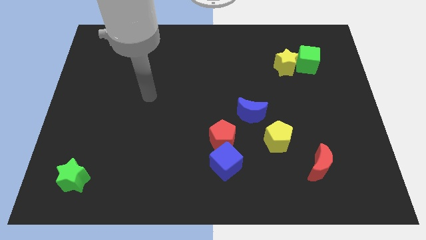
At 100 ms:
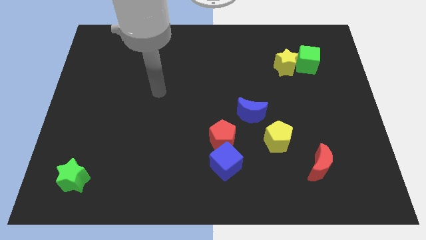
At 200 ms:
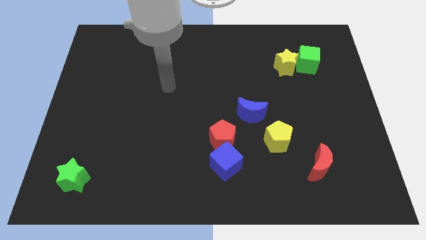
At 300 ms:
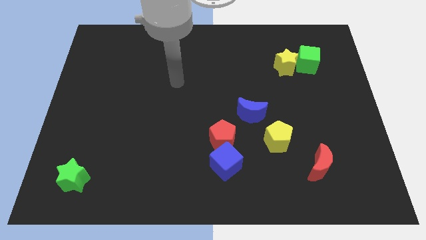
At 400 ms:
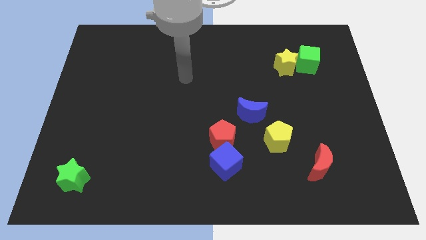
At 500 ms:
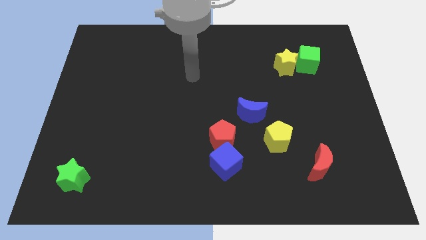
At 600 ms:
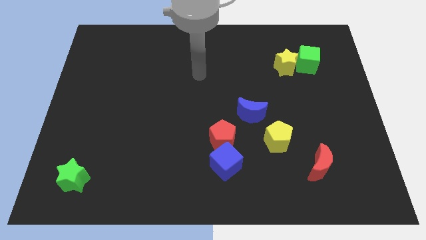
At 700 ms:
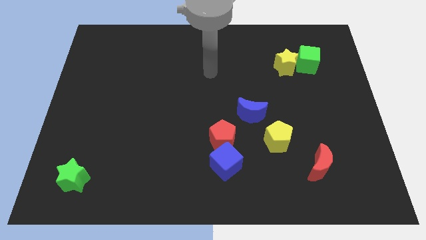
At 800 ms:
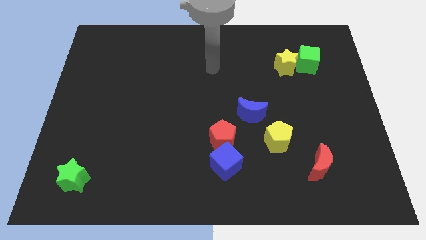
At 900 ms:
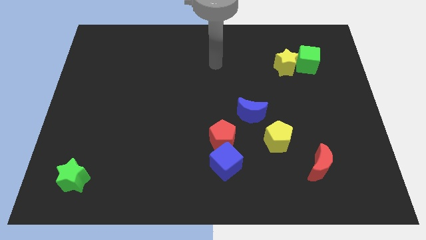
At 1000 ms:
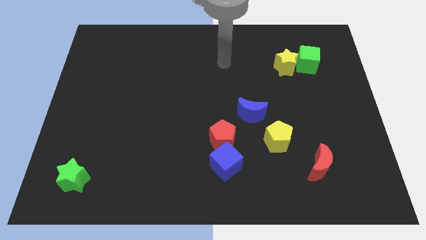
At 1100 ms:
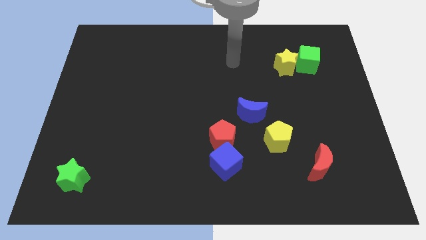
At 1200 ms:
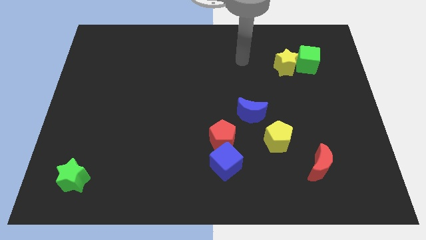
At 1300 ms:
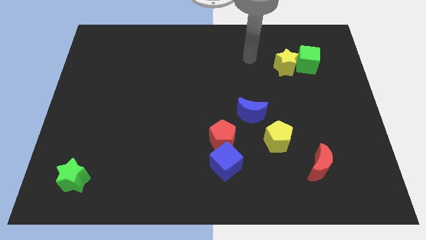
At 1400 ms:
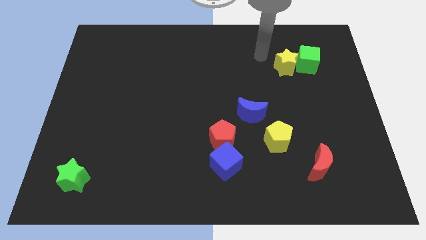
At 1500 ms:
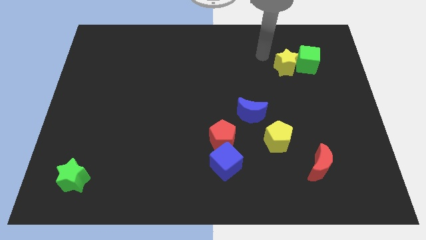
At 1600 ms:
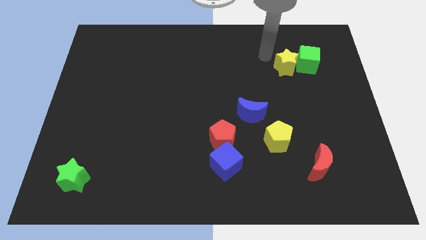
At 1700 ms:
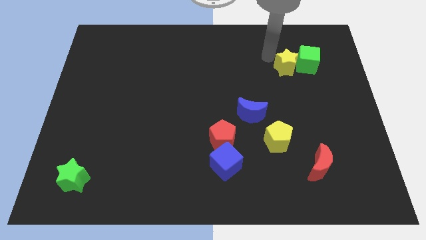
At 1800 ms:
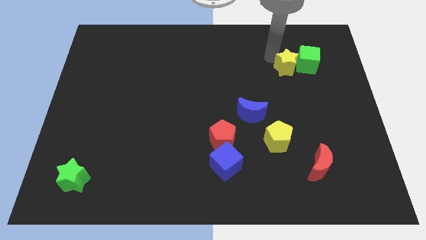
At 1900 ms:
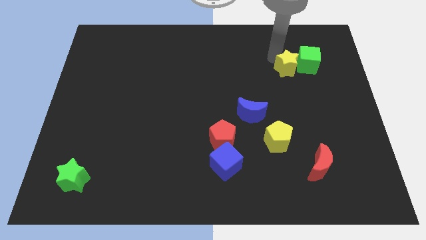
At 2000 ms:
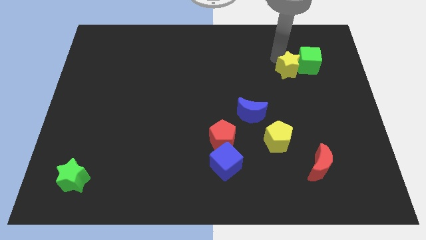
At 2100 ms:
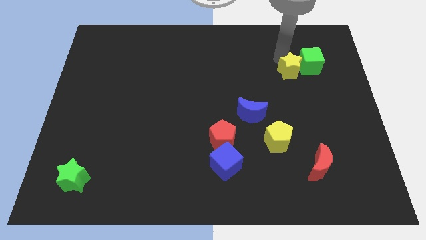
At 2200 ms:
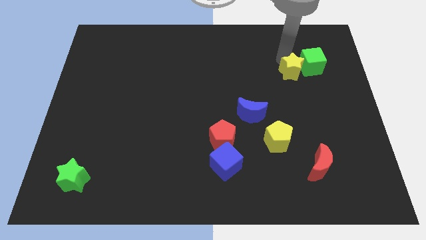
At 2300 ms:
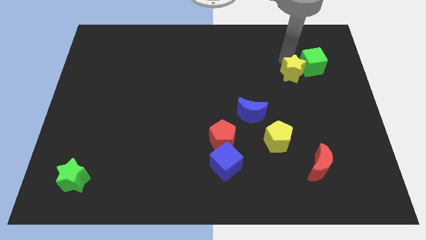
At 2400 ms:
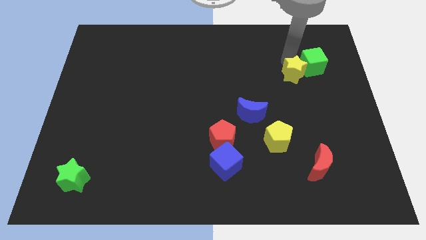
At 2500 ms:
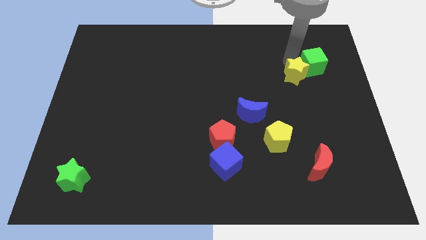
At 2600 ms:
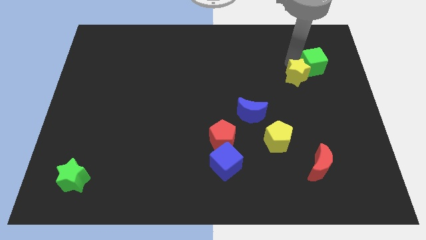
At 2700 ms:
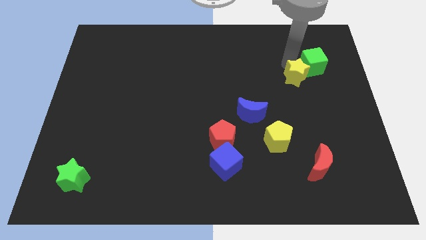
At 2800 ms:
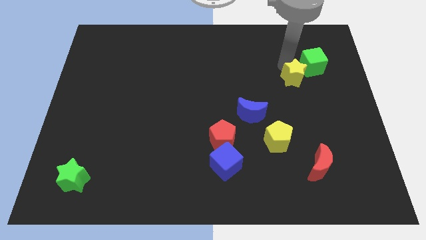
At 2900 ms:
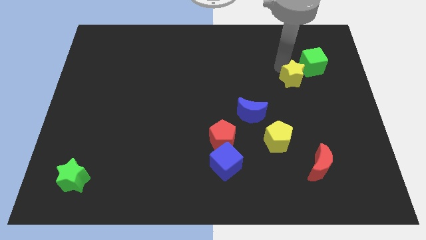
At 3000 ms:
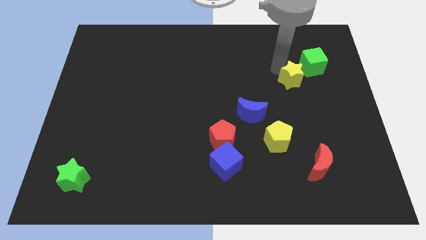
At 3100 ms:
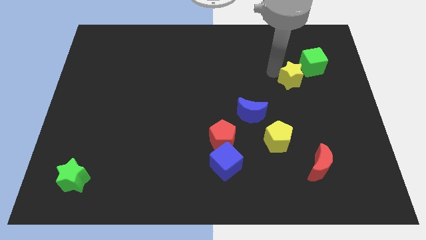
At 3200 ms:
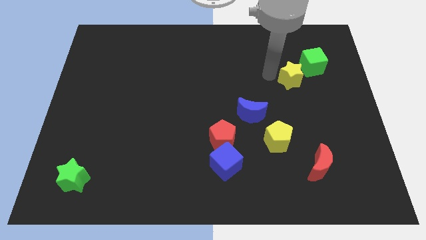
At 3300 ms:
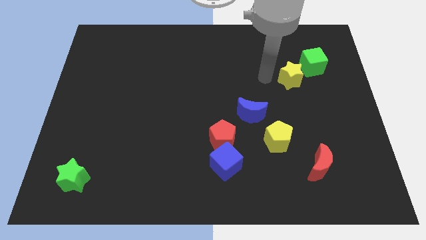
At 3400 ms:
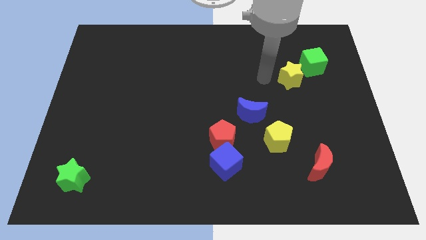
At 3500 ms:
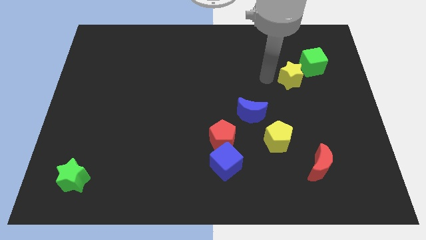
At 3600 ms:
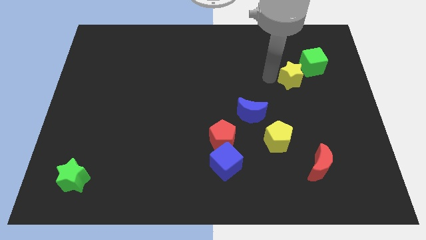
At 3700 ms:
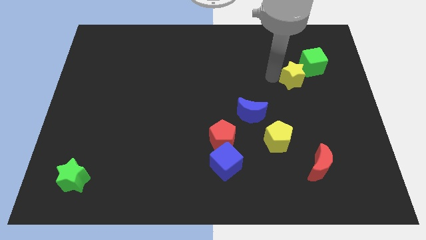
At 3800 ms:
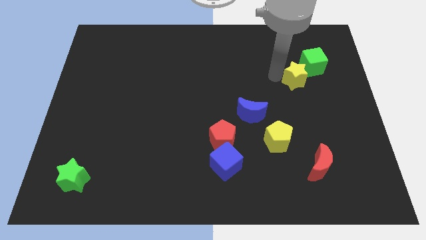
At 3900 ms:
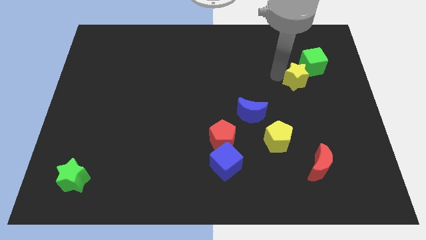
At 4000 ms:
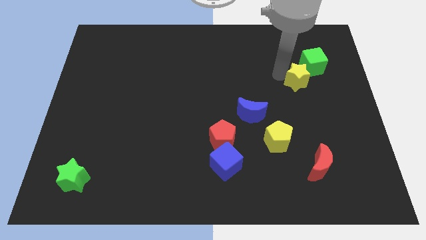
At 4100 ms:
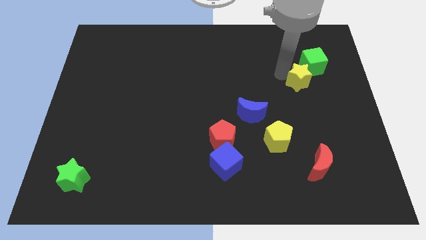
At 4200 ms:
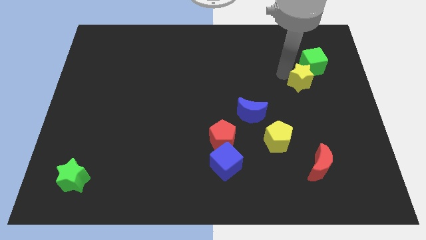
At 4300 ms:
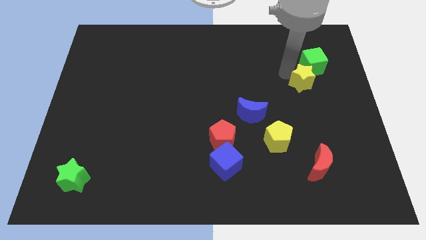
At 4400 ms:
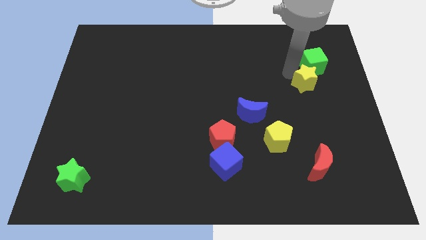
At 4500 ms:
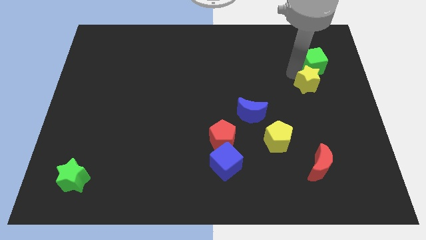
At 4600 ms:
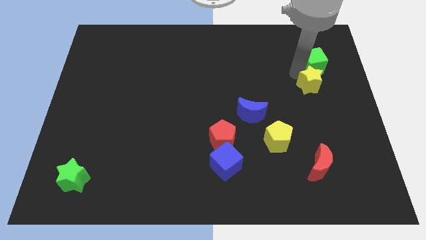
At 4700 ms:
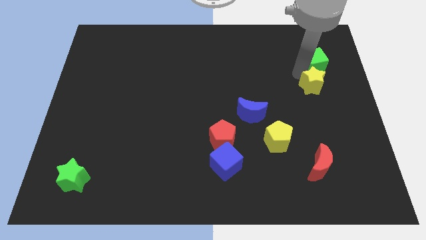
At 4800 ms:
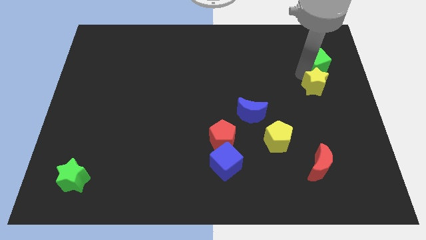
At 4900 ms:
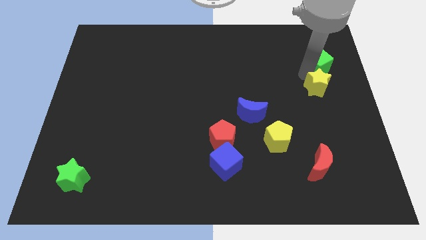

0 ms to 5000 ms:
slide the yellow star to the right side of the board

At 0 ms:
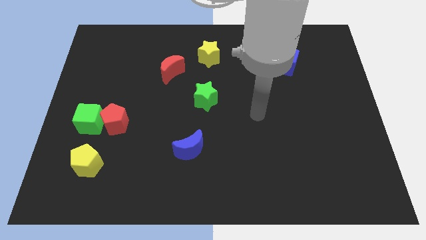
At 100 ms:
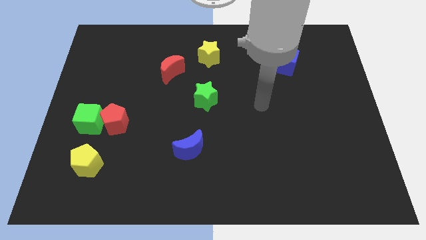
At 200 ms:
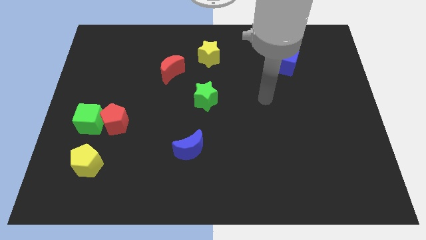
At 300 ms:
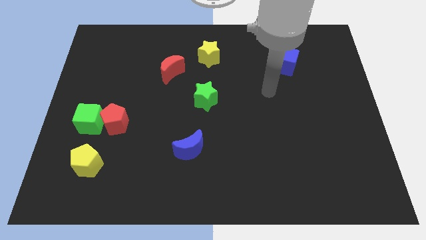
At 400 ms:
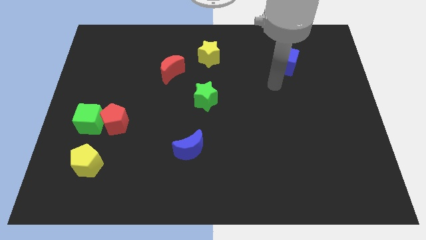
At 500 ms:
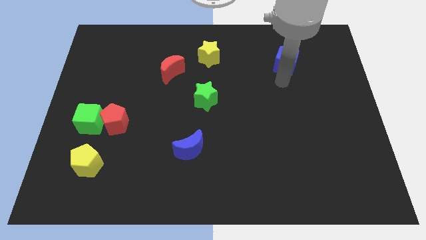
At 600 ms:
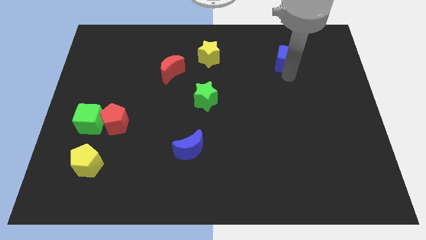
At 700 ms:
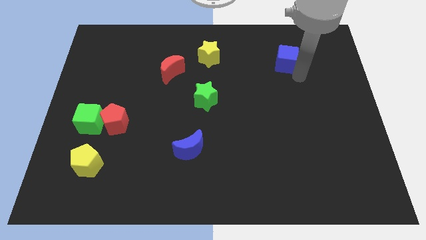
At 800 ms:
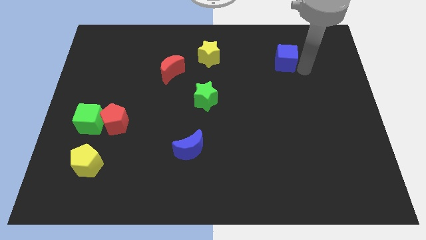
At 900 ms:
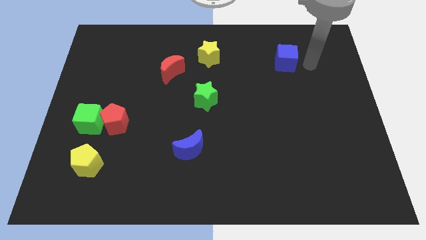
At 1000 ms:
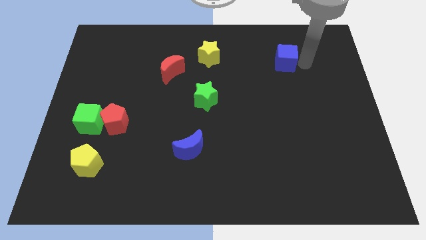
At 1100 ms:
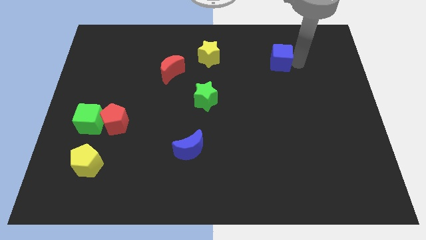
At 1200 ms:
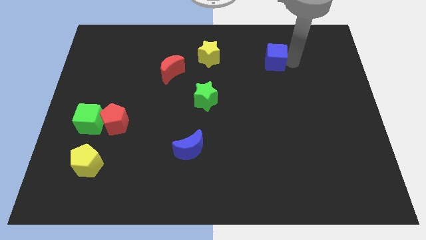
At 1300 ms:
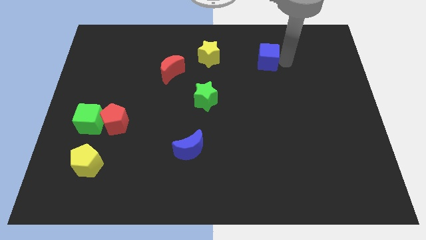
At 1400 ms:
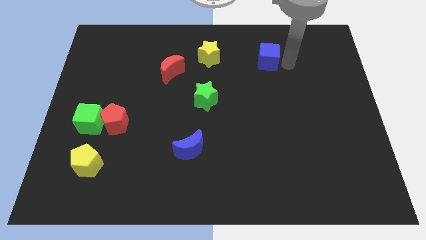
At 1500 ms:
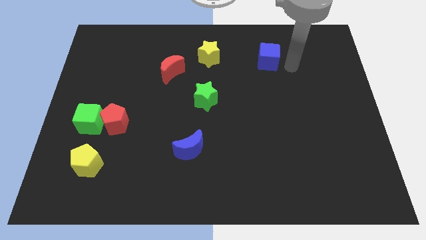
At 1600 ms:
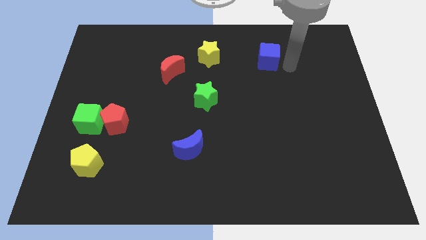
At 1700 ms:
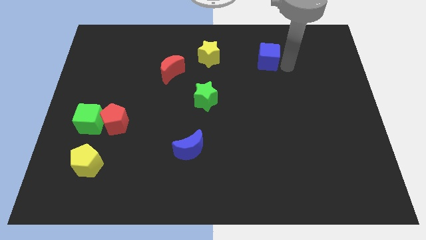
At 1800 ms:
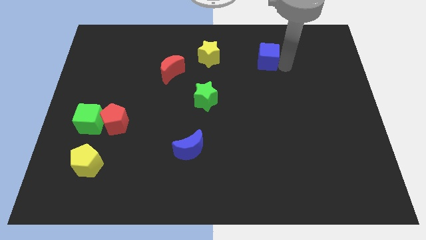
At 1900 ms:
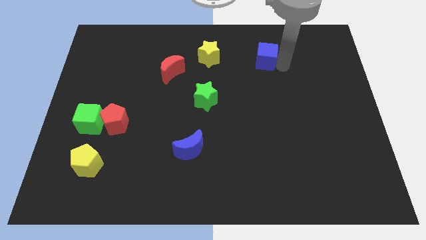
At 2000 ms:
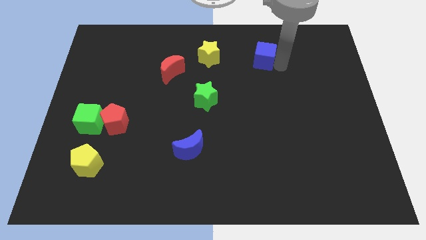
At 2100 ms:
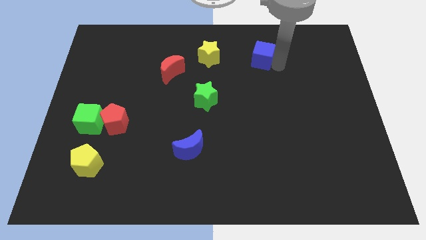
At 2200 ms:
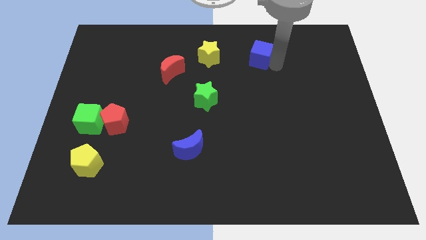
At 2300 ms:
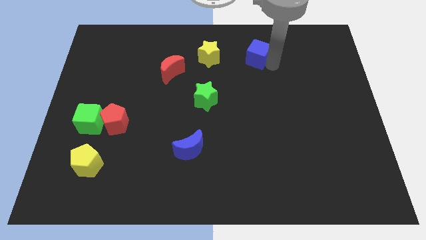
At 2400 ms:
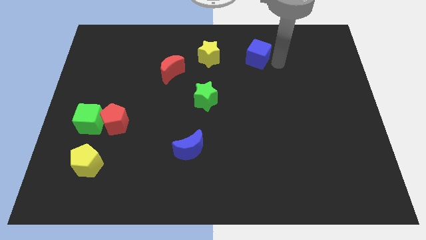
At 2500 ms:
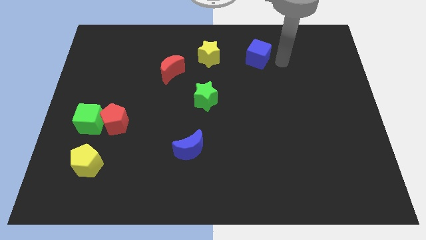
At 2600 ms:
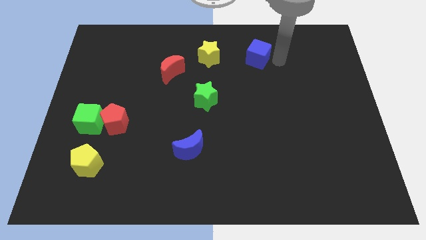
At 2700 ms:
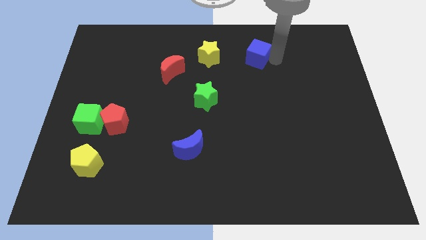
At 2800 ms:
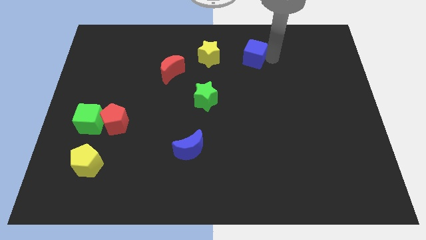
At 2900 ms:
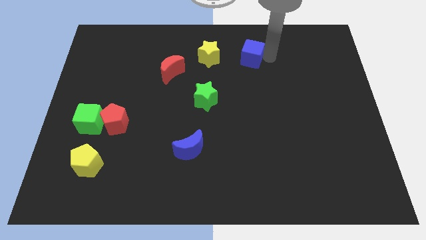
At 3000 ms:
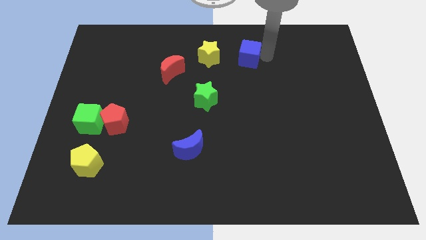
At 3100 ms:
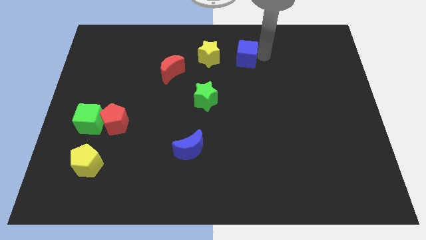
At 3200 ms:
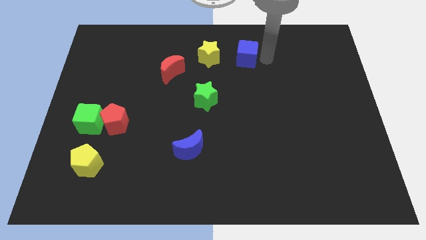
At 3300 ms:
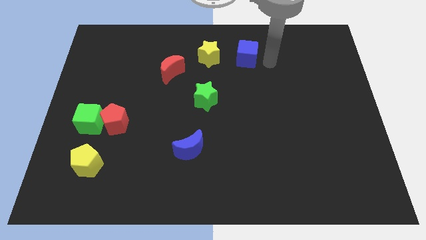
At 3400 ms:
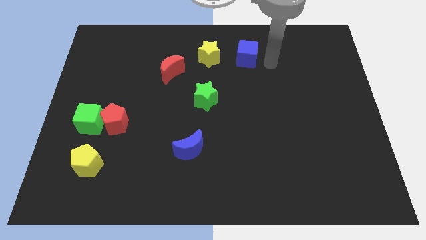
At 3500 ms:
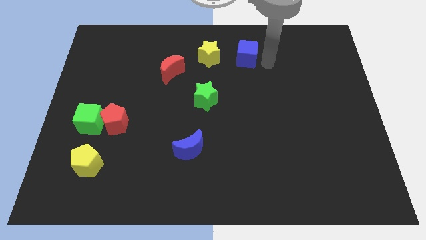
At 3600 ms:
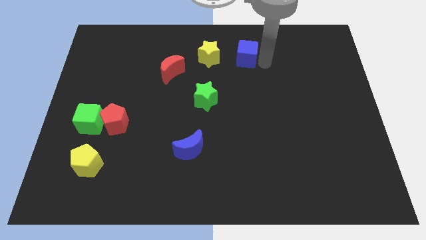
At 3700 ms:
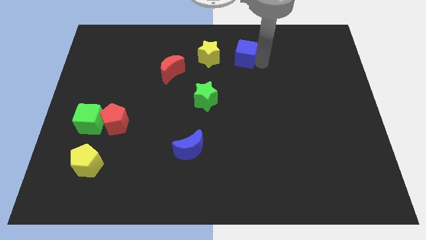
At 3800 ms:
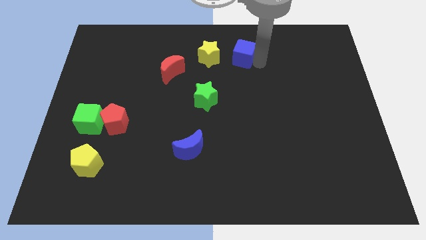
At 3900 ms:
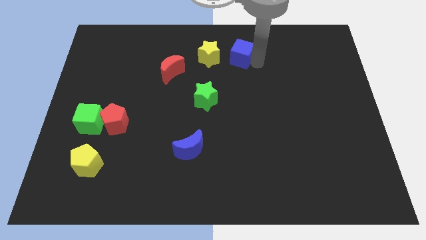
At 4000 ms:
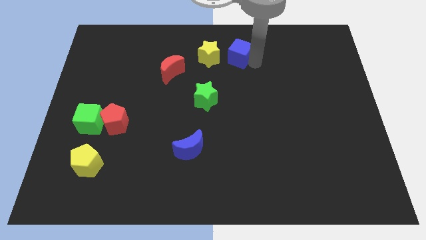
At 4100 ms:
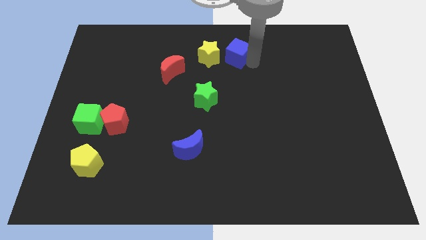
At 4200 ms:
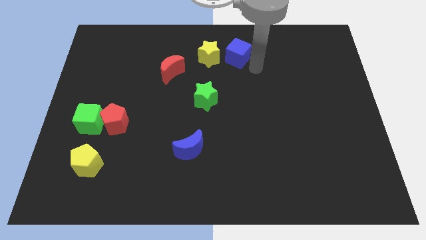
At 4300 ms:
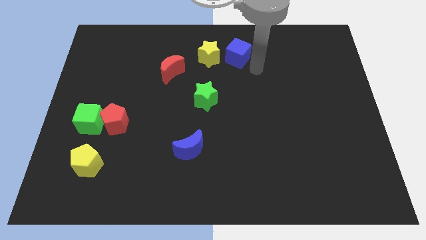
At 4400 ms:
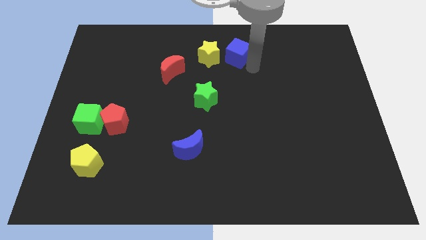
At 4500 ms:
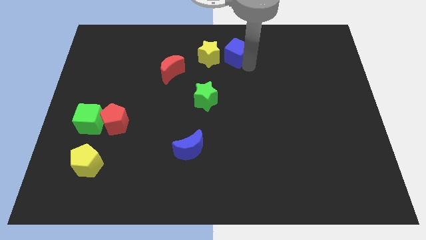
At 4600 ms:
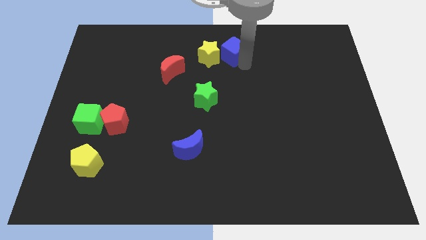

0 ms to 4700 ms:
slide the blue cube to the towards your base
